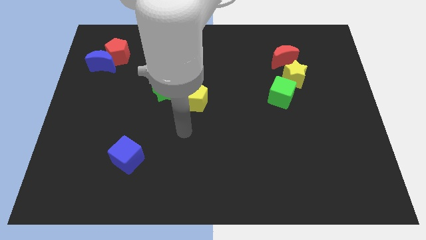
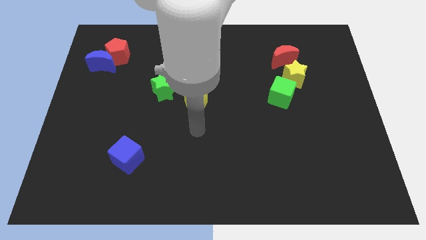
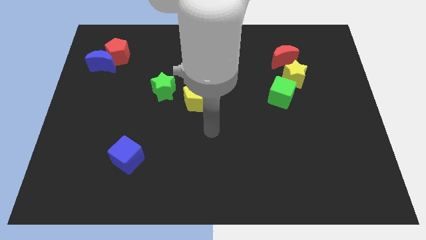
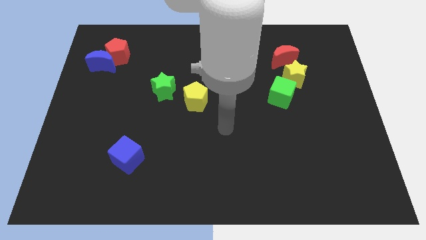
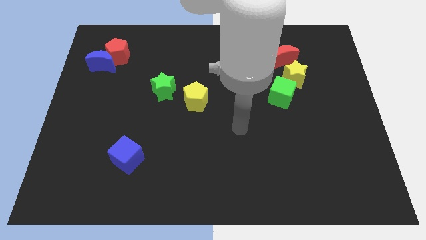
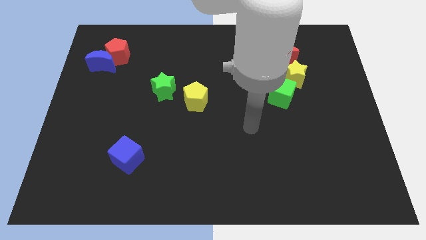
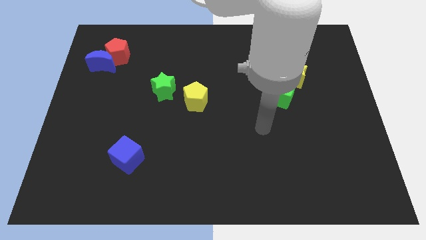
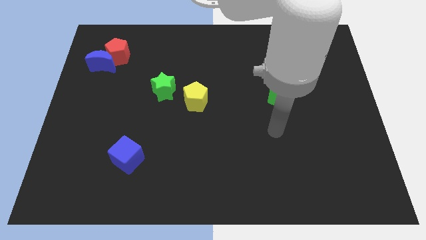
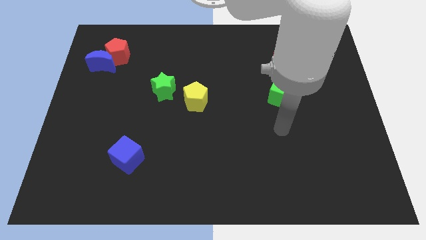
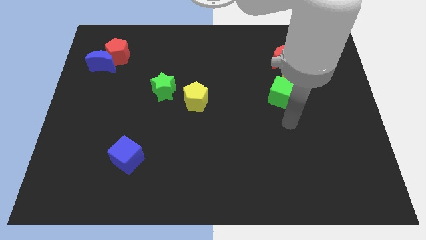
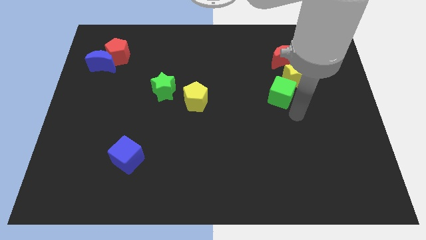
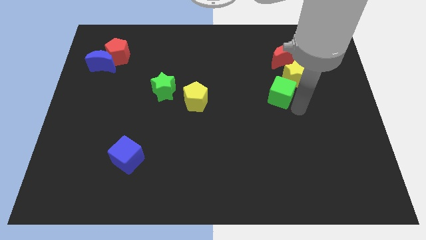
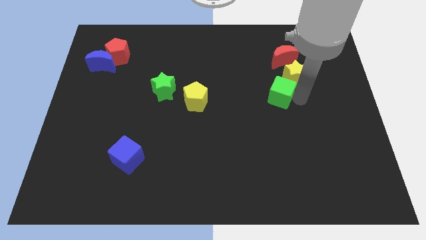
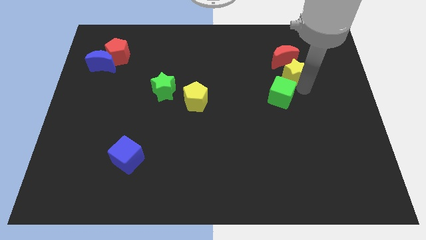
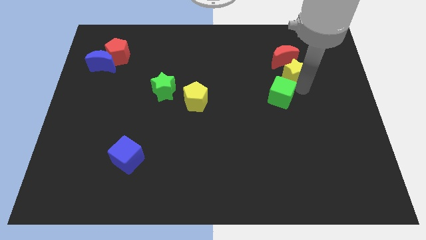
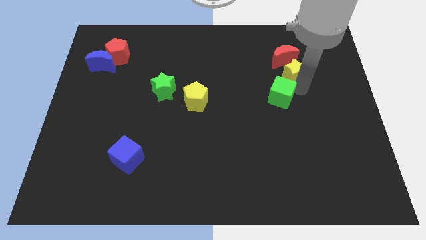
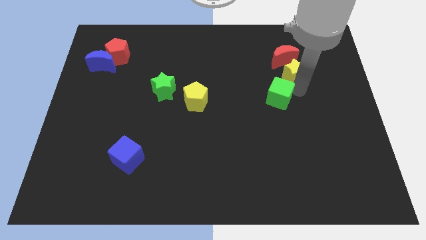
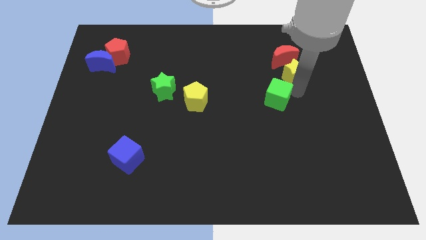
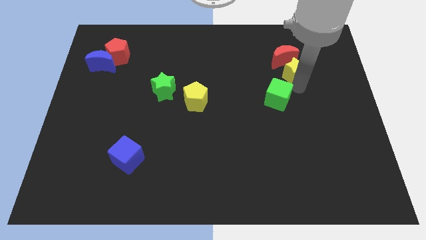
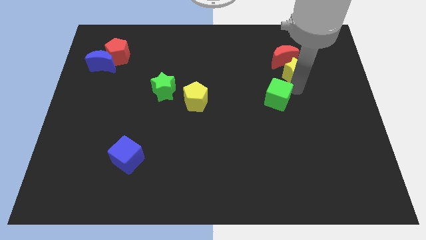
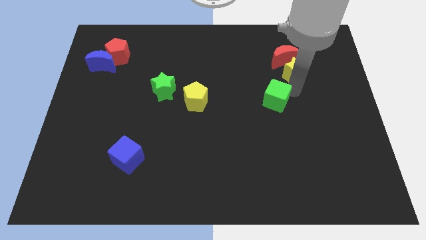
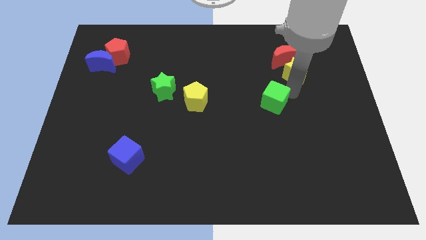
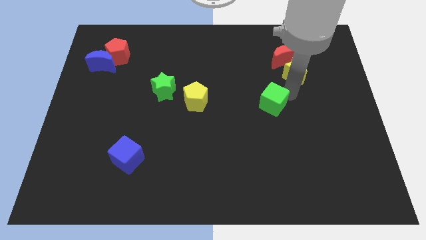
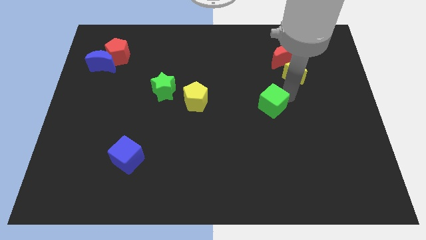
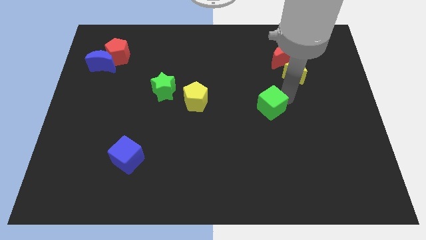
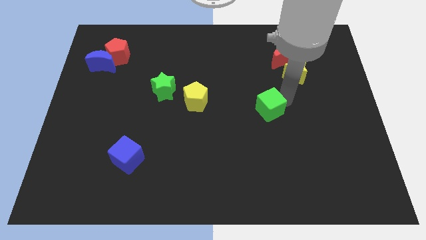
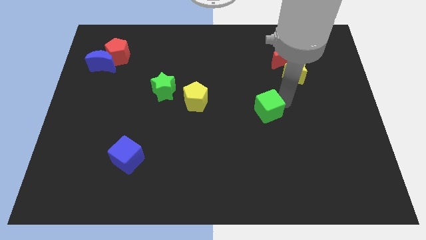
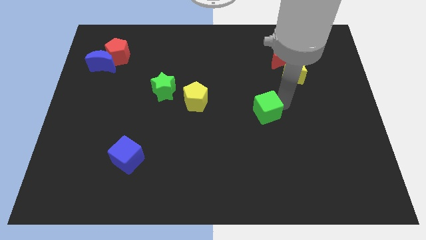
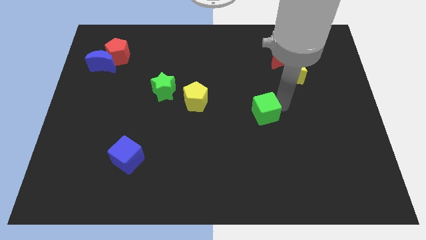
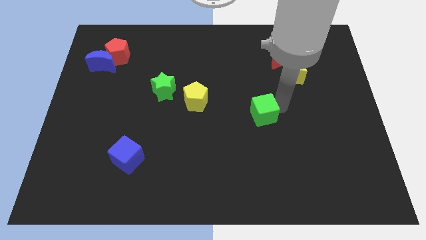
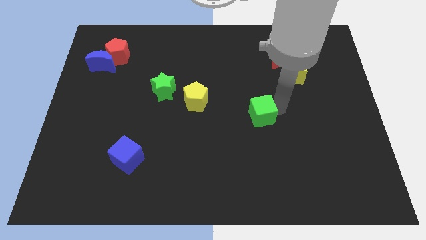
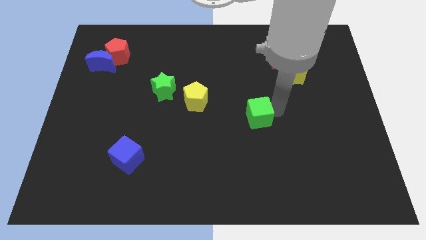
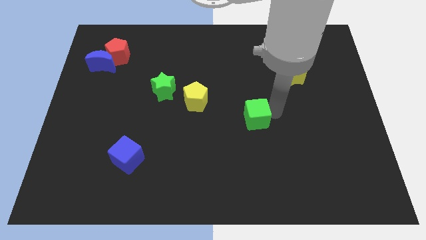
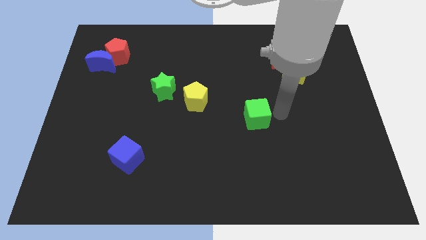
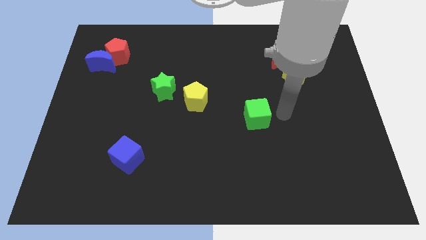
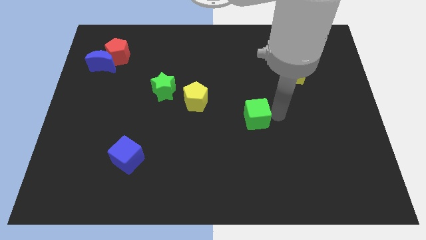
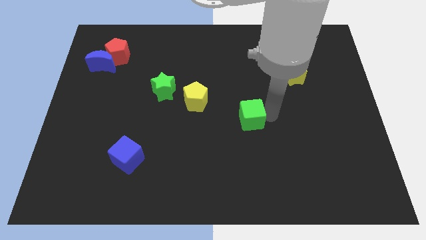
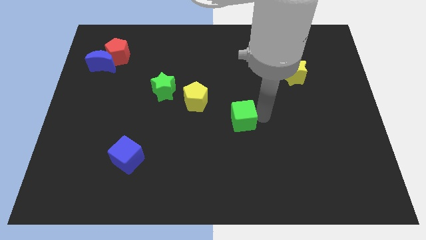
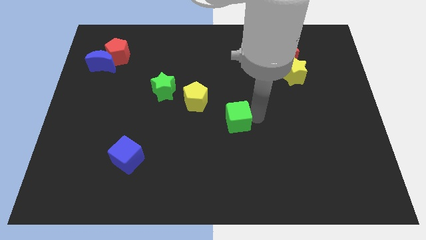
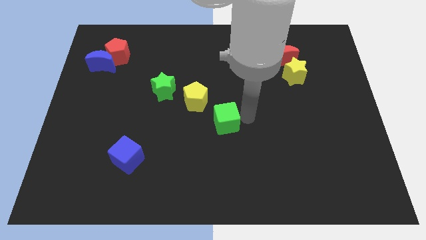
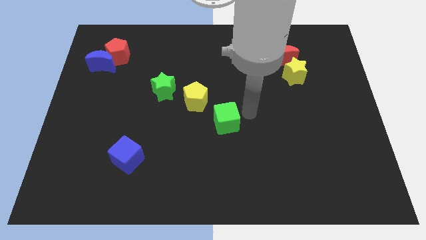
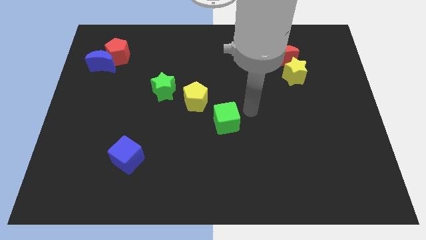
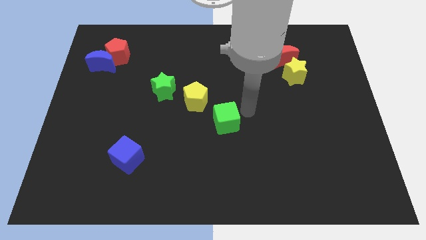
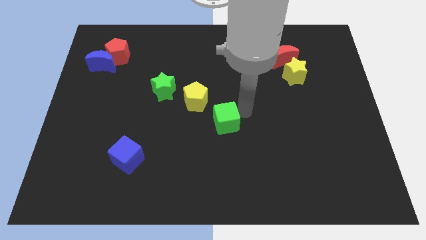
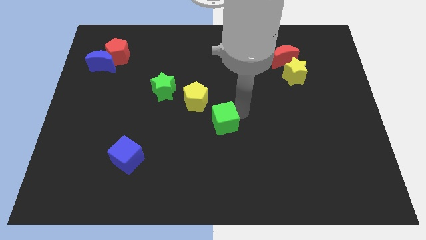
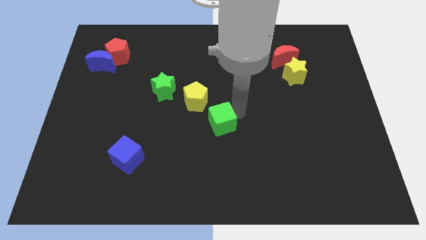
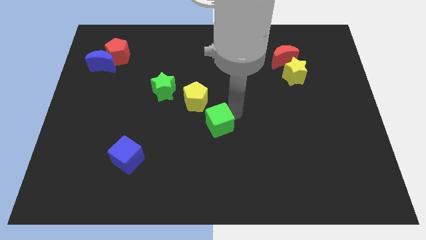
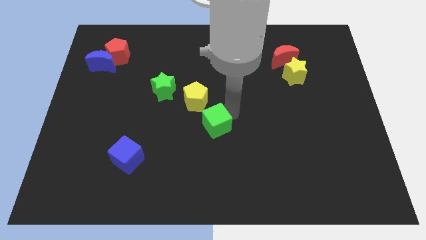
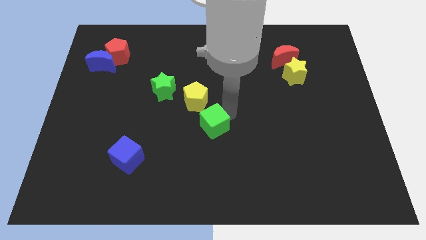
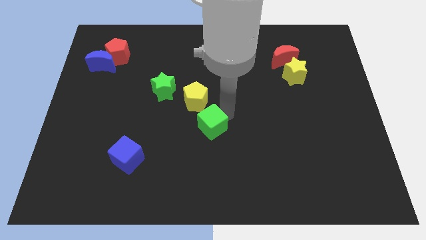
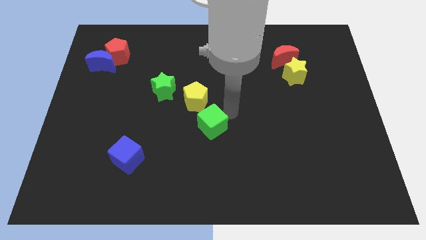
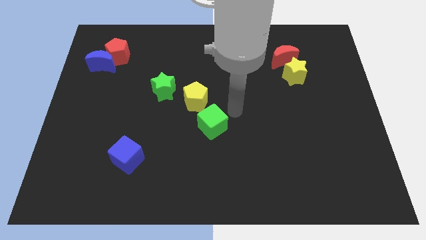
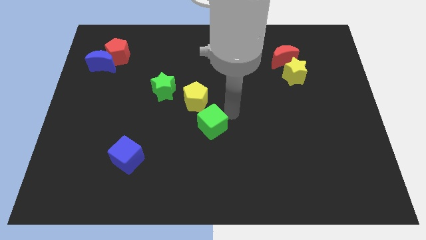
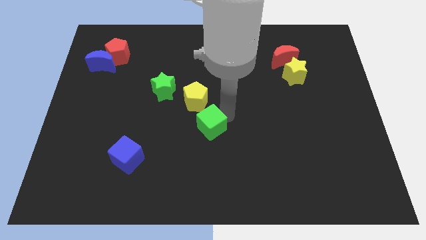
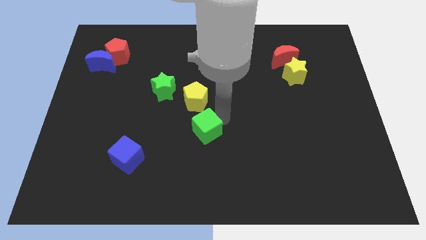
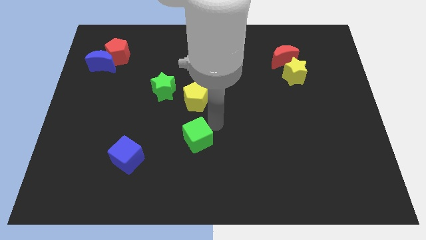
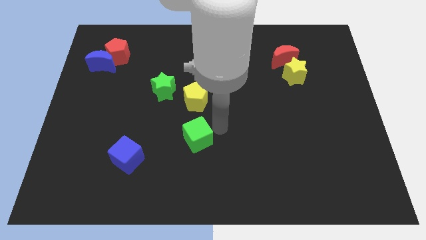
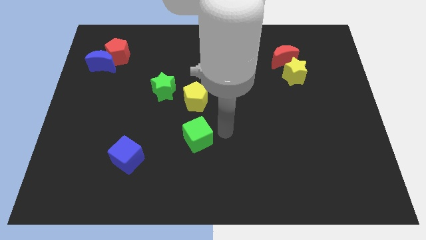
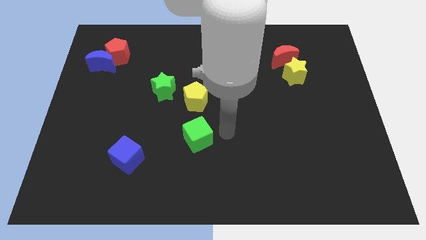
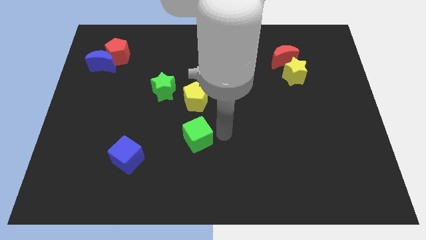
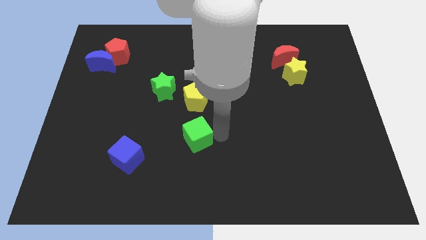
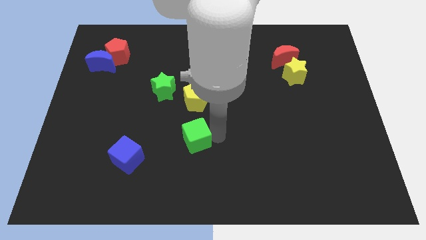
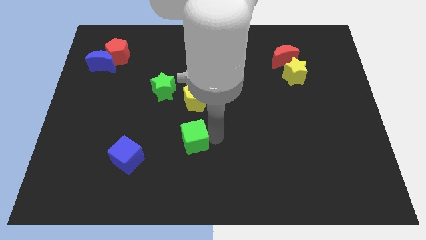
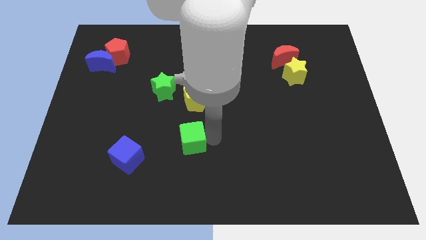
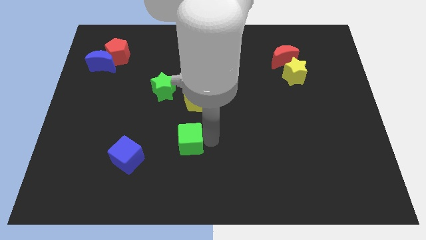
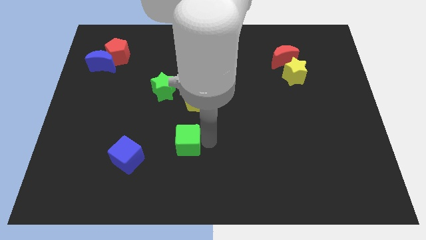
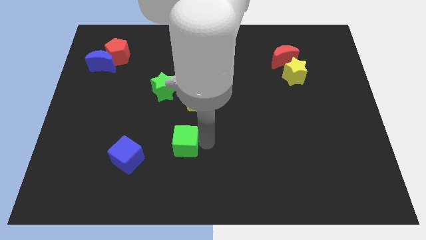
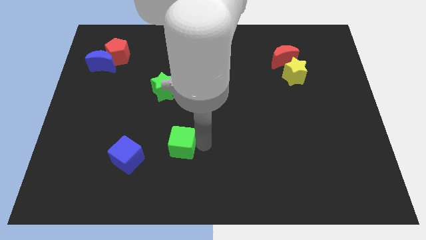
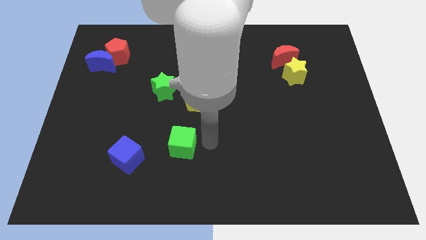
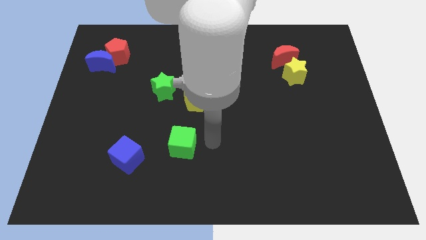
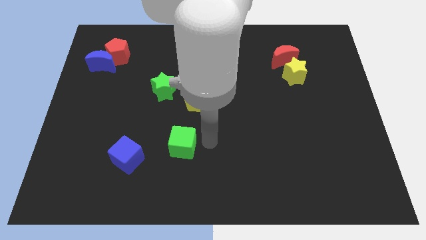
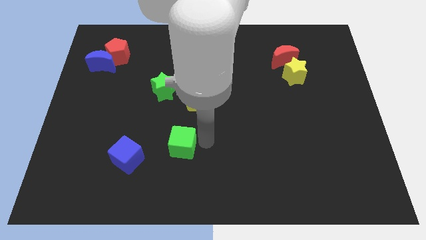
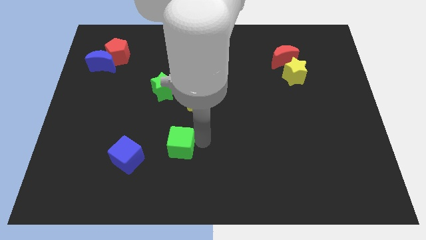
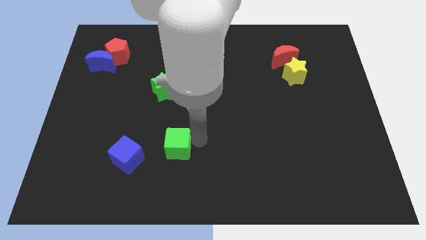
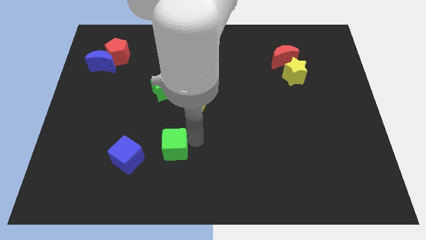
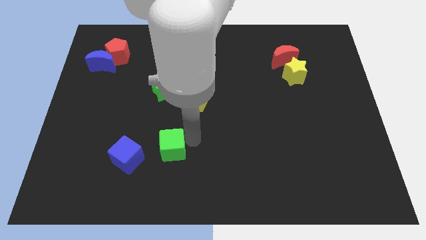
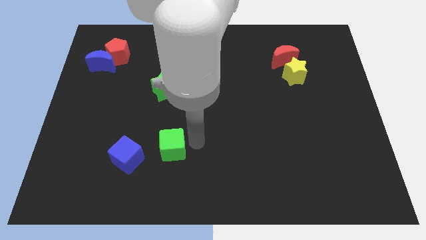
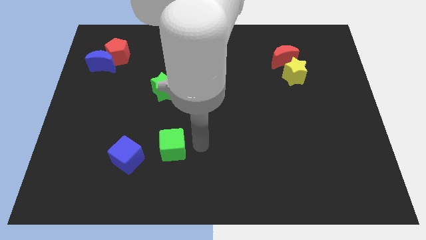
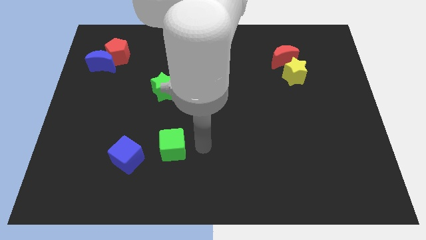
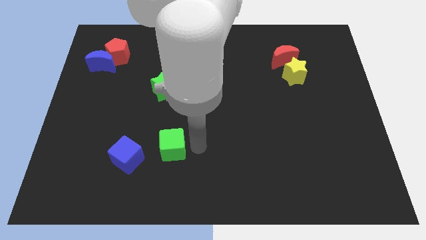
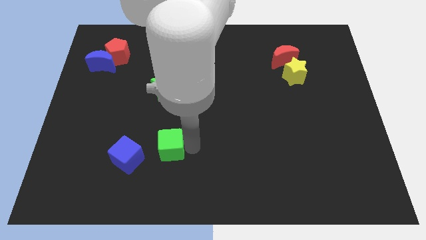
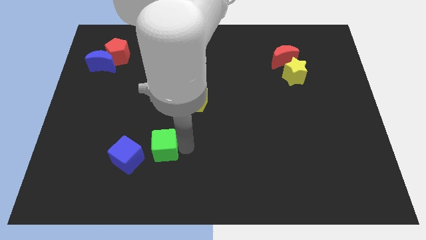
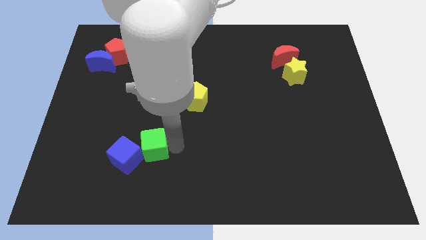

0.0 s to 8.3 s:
slide the green cube close to the blue cube
